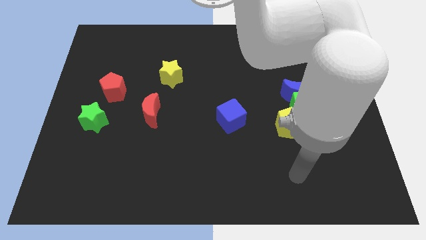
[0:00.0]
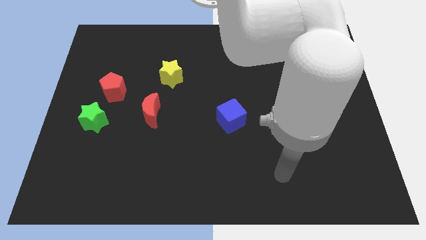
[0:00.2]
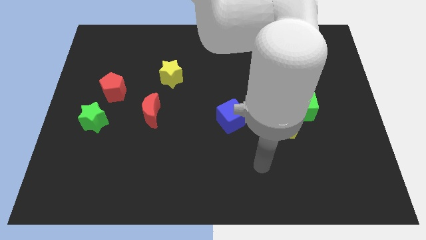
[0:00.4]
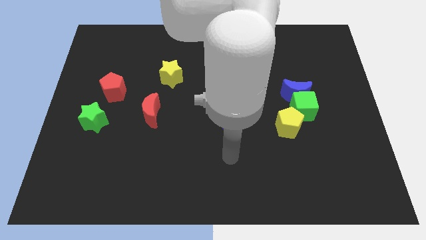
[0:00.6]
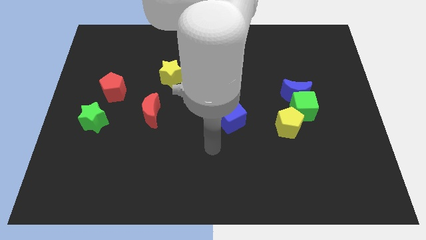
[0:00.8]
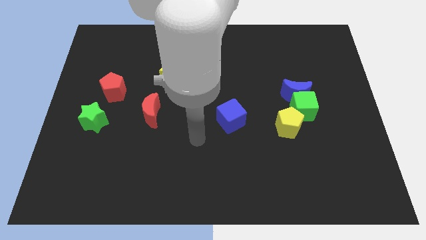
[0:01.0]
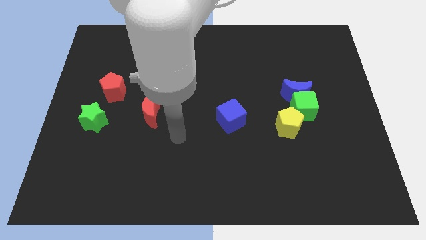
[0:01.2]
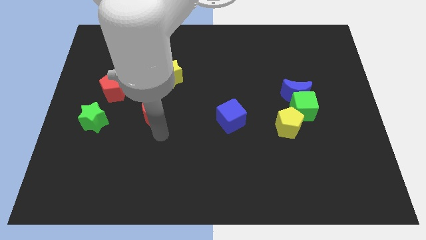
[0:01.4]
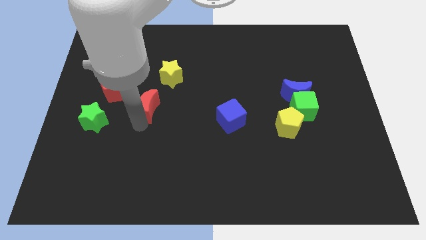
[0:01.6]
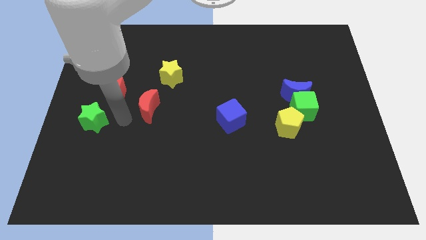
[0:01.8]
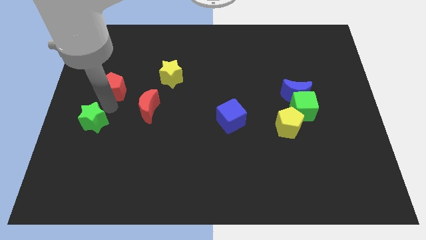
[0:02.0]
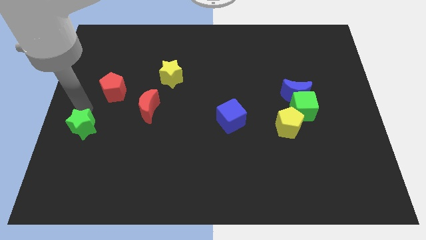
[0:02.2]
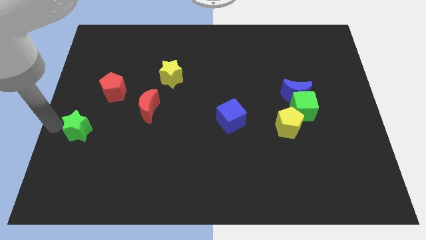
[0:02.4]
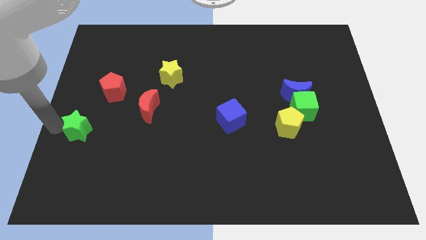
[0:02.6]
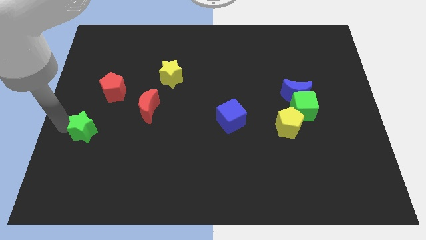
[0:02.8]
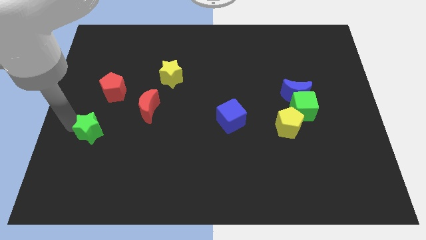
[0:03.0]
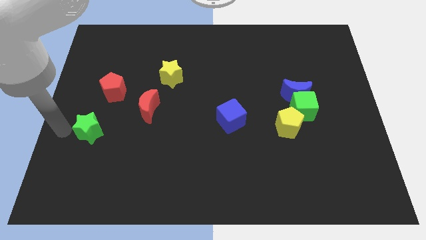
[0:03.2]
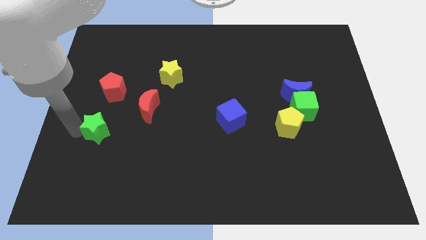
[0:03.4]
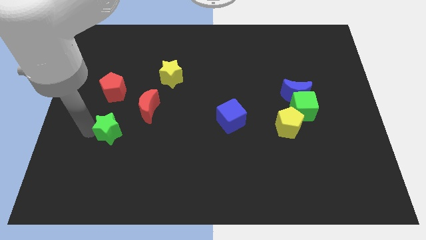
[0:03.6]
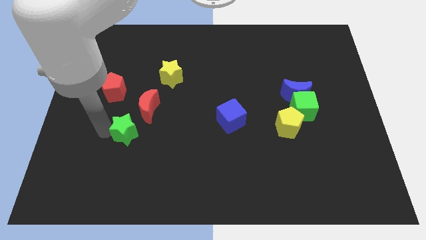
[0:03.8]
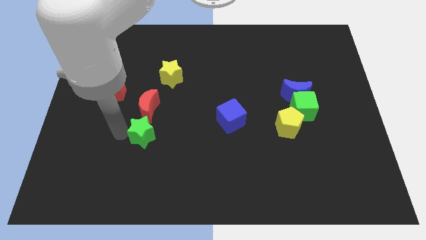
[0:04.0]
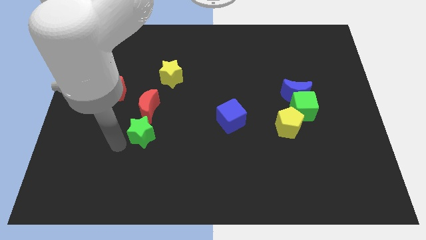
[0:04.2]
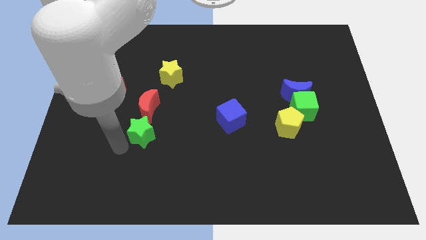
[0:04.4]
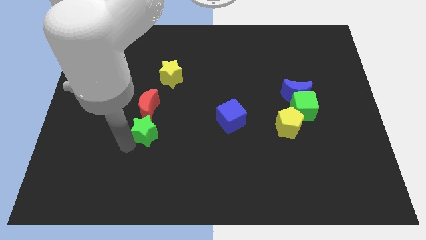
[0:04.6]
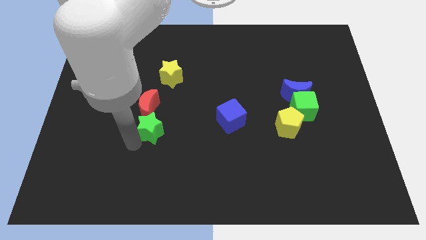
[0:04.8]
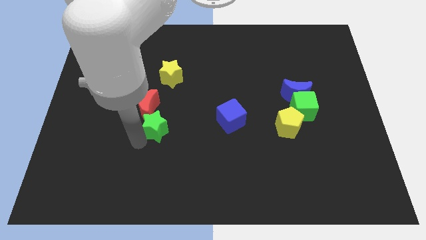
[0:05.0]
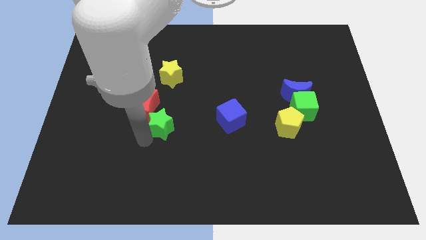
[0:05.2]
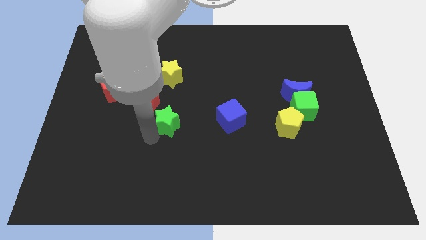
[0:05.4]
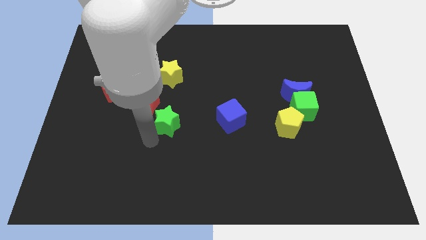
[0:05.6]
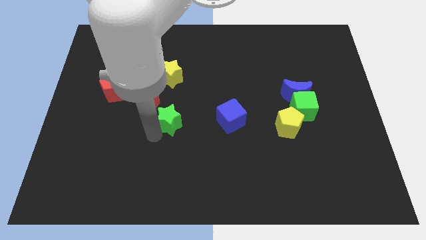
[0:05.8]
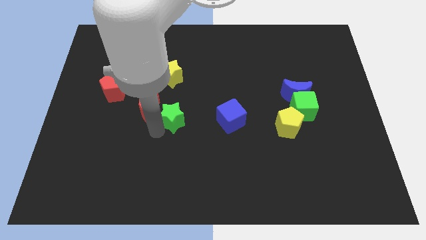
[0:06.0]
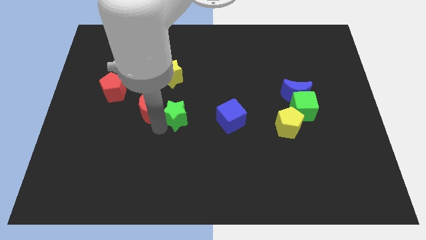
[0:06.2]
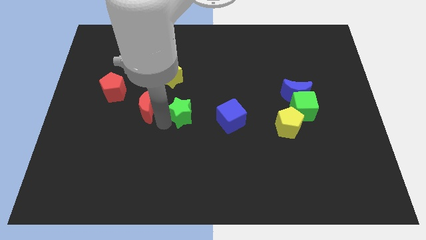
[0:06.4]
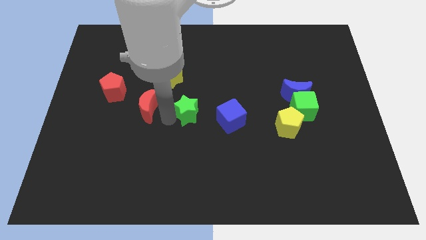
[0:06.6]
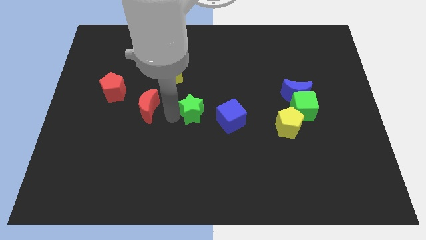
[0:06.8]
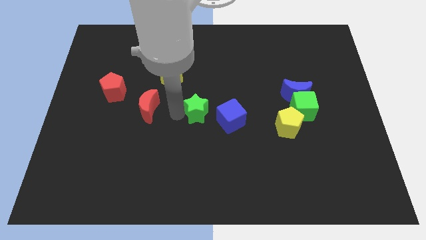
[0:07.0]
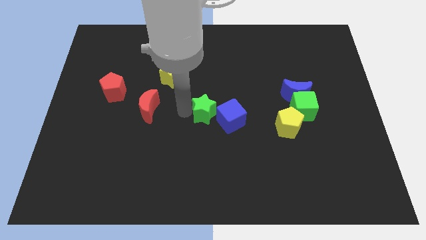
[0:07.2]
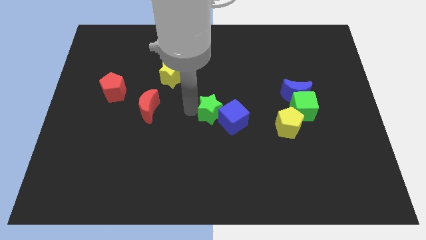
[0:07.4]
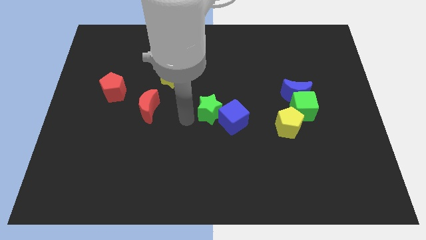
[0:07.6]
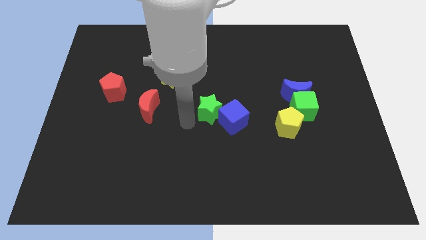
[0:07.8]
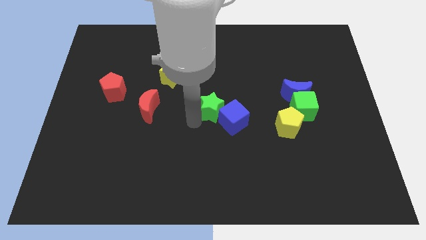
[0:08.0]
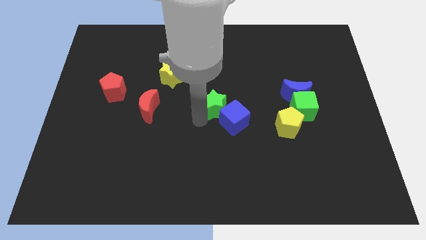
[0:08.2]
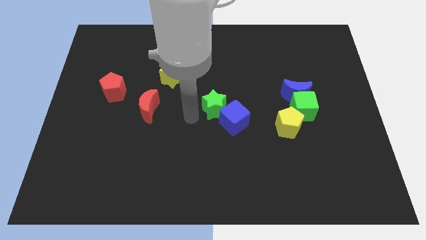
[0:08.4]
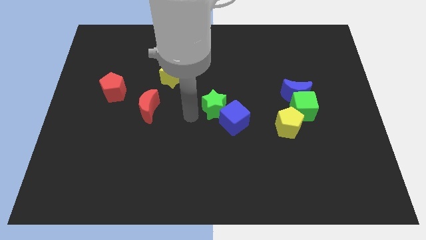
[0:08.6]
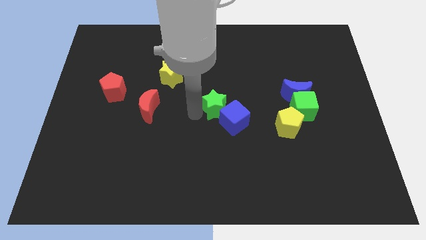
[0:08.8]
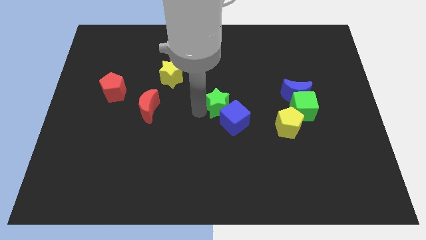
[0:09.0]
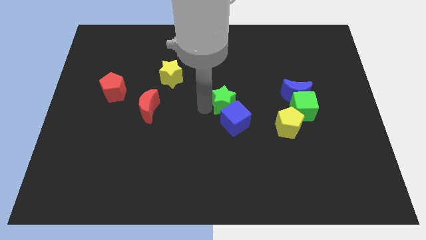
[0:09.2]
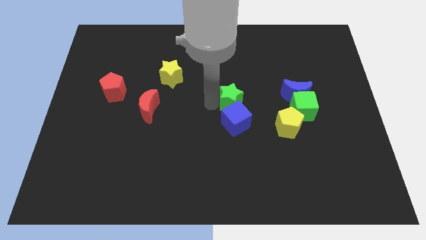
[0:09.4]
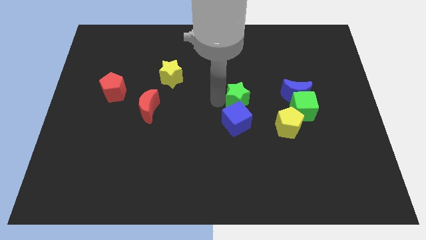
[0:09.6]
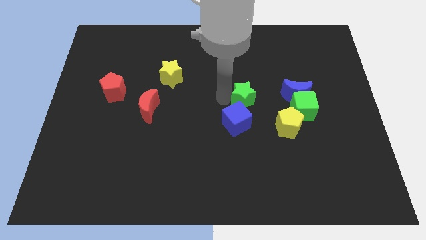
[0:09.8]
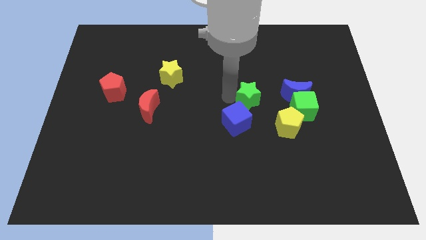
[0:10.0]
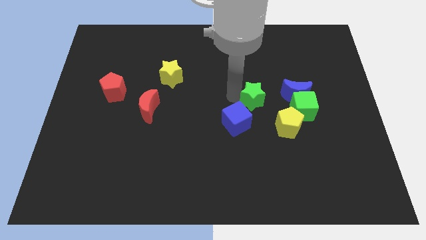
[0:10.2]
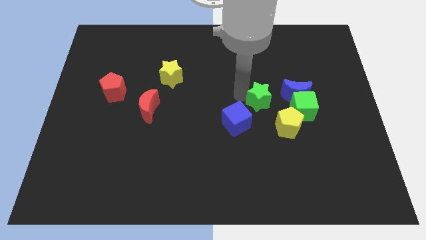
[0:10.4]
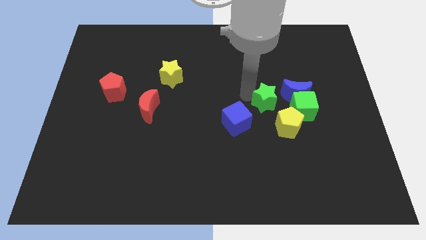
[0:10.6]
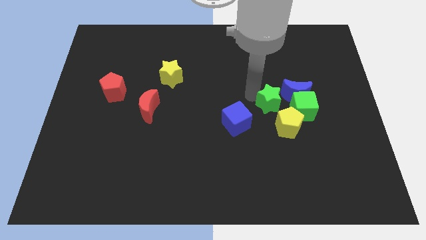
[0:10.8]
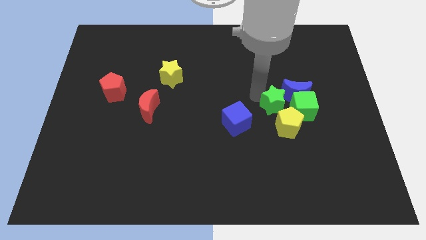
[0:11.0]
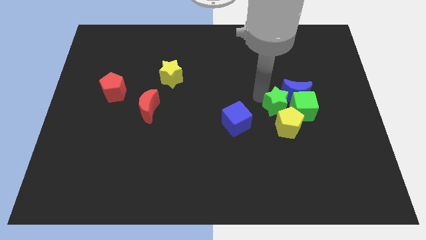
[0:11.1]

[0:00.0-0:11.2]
put the green star to the green cube

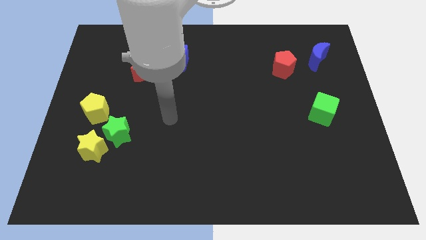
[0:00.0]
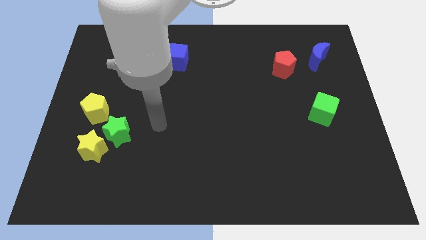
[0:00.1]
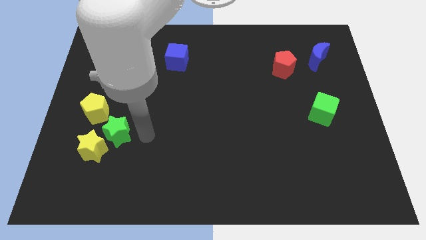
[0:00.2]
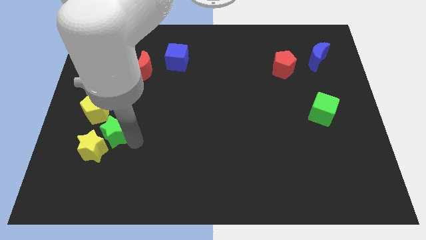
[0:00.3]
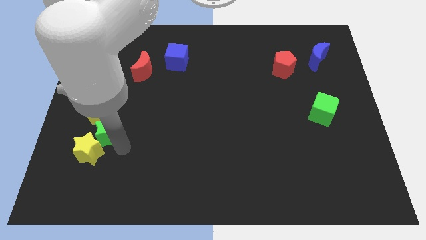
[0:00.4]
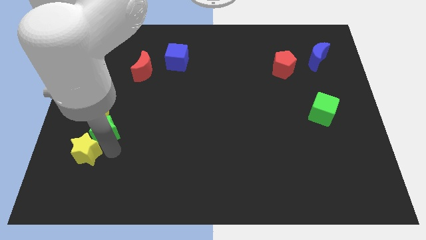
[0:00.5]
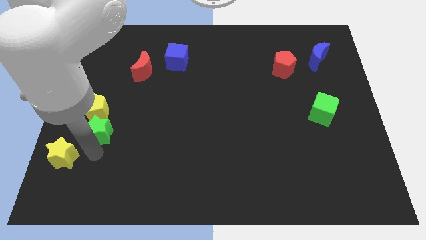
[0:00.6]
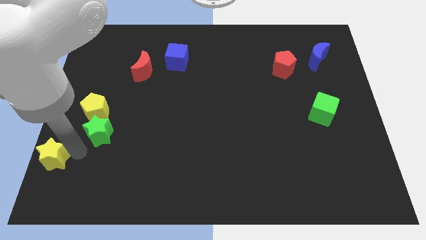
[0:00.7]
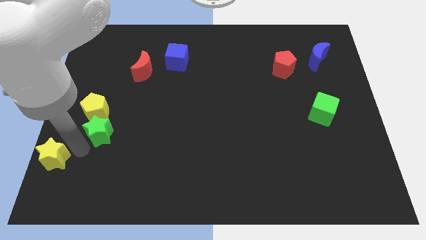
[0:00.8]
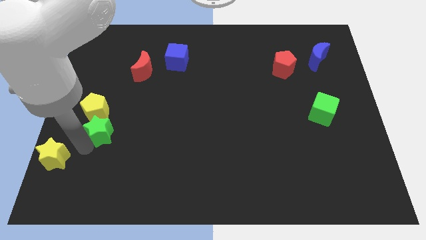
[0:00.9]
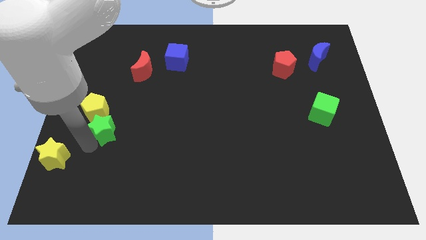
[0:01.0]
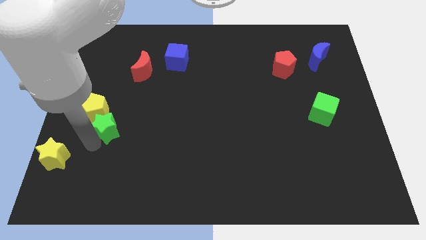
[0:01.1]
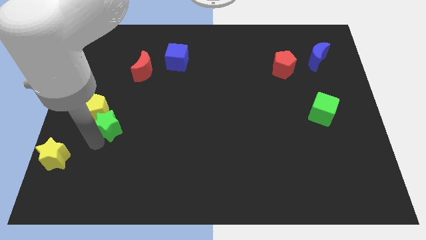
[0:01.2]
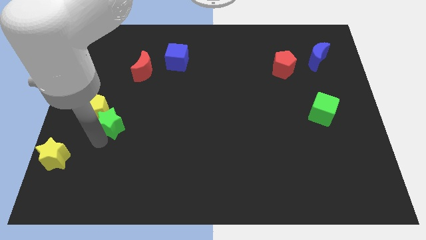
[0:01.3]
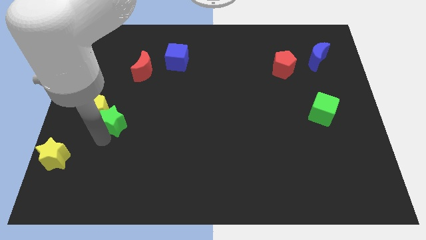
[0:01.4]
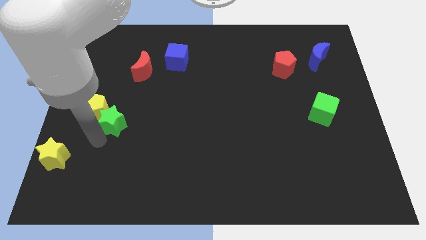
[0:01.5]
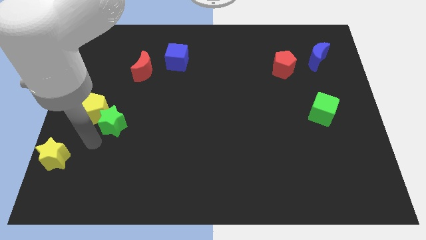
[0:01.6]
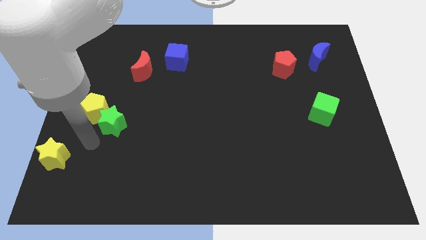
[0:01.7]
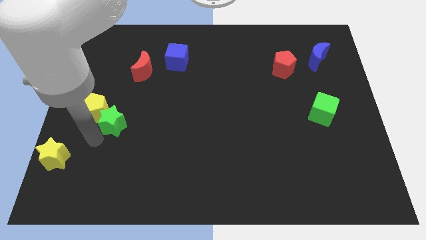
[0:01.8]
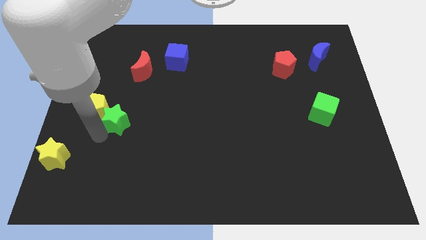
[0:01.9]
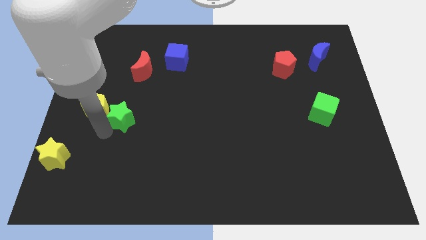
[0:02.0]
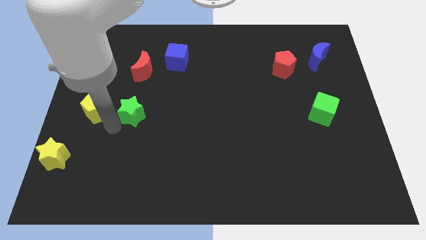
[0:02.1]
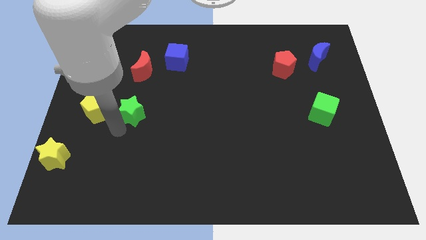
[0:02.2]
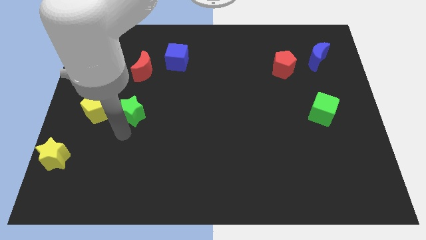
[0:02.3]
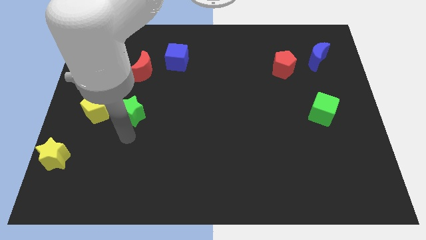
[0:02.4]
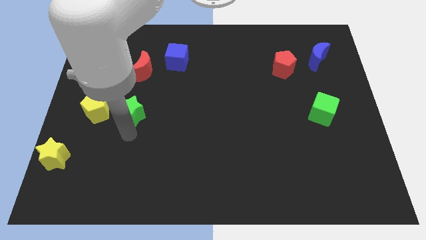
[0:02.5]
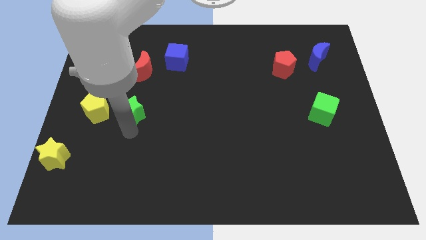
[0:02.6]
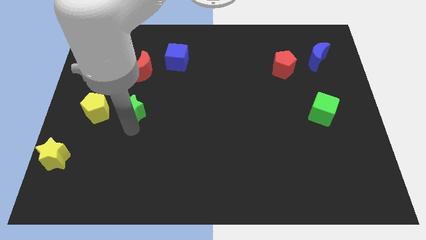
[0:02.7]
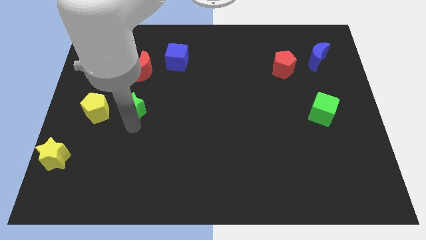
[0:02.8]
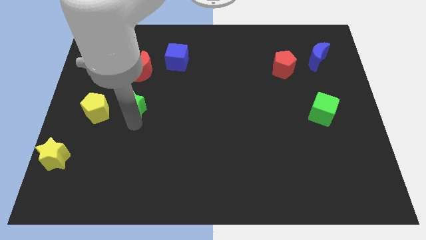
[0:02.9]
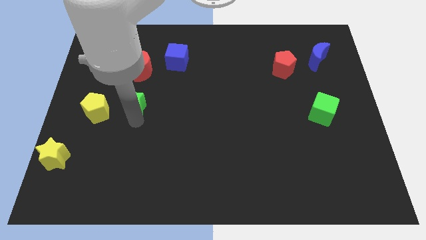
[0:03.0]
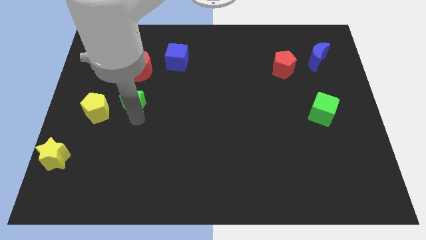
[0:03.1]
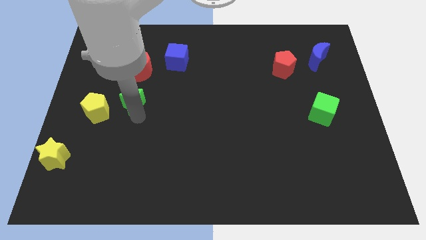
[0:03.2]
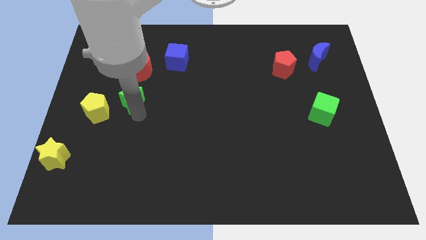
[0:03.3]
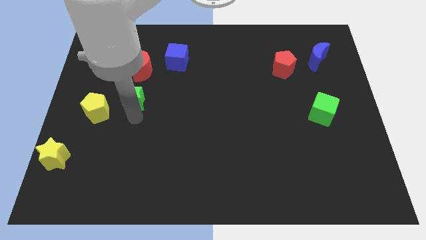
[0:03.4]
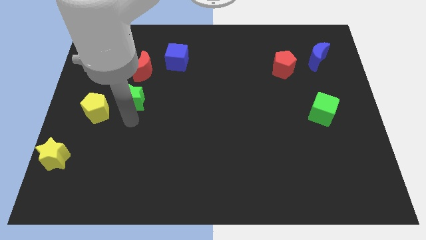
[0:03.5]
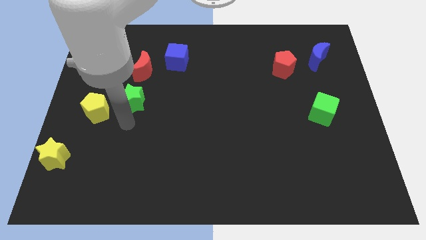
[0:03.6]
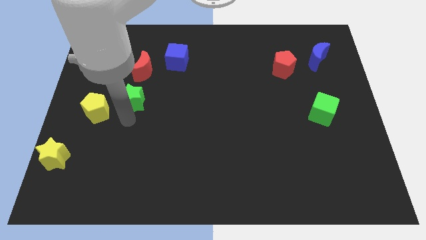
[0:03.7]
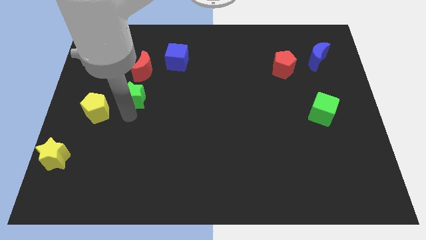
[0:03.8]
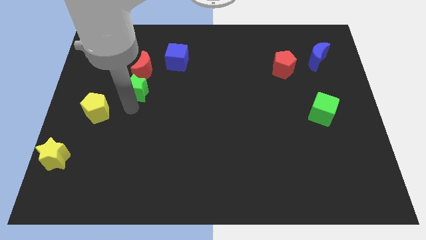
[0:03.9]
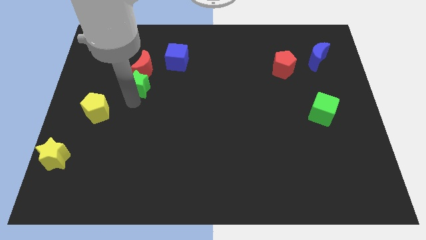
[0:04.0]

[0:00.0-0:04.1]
put the green star next to the red moon
